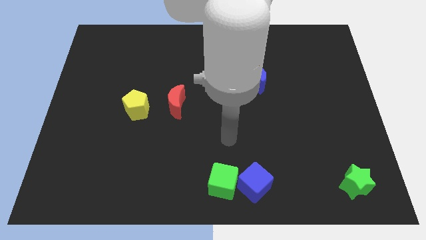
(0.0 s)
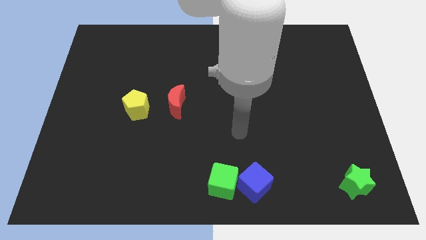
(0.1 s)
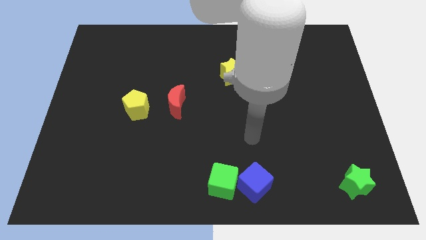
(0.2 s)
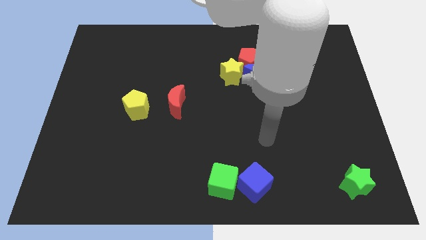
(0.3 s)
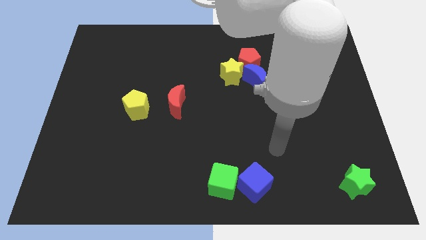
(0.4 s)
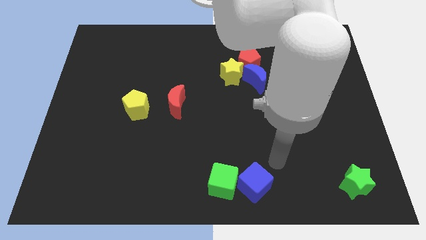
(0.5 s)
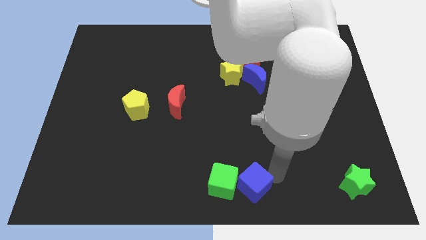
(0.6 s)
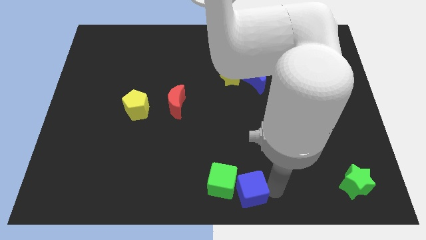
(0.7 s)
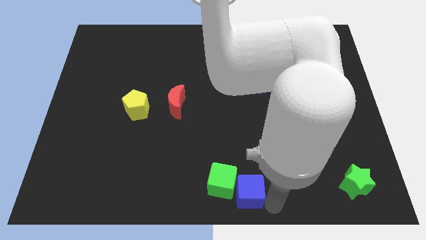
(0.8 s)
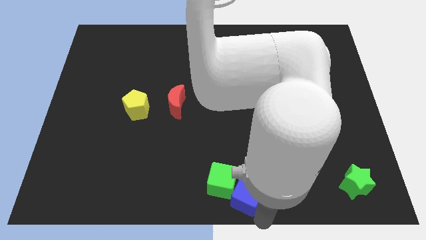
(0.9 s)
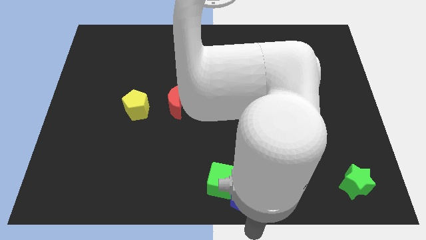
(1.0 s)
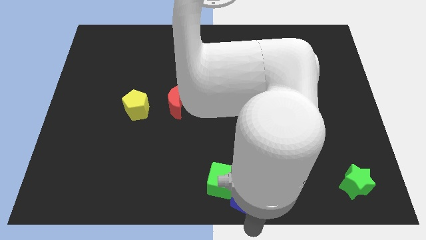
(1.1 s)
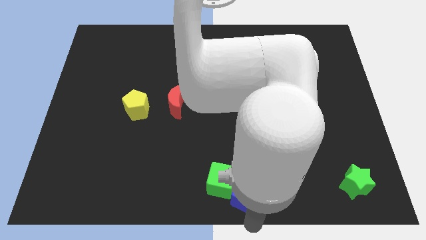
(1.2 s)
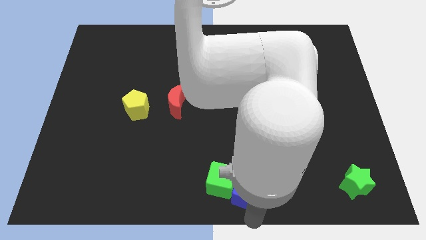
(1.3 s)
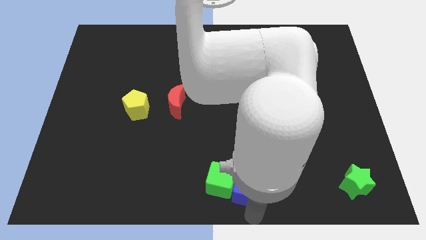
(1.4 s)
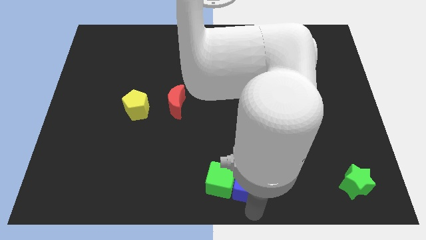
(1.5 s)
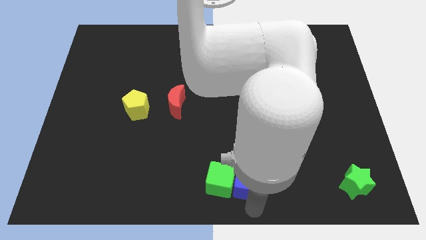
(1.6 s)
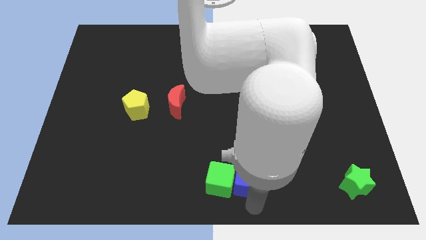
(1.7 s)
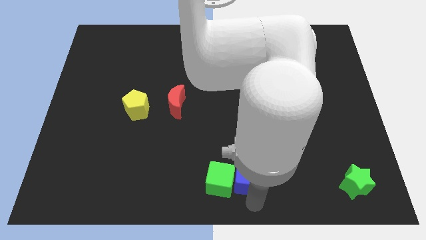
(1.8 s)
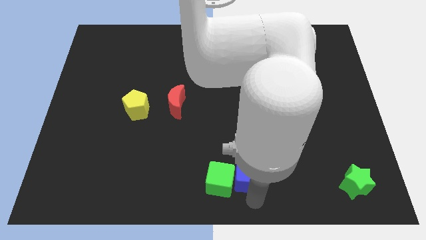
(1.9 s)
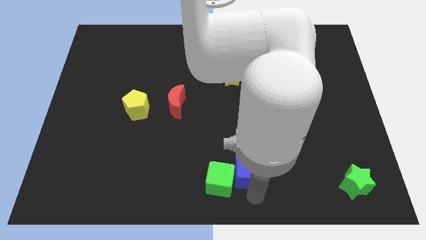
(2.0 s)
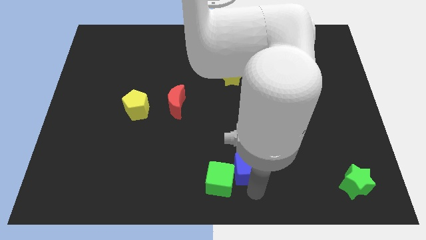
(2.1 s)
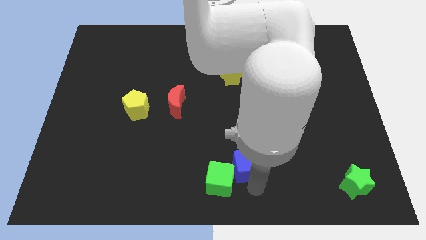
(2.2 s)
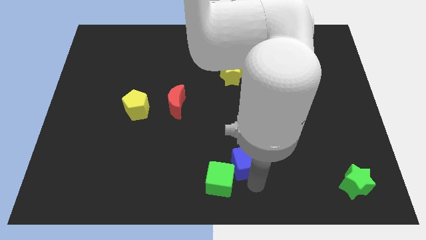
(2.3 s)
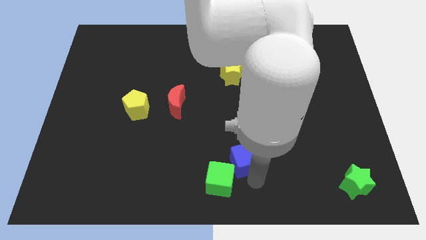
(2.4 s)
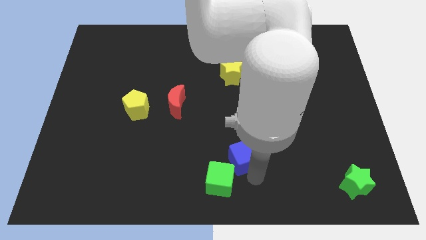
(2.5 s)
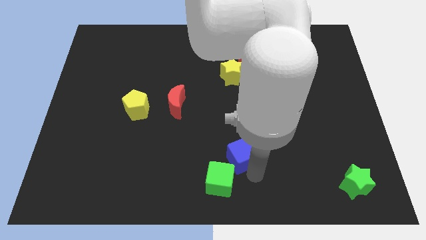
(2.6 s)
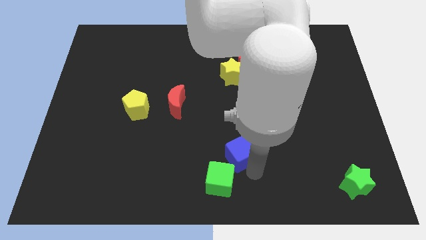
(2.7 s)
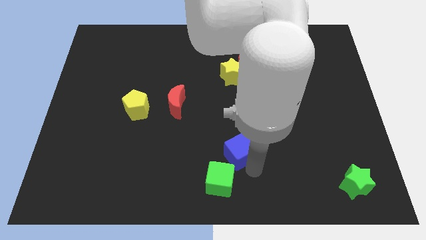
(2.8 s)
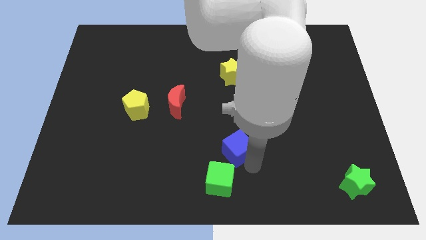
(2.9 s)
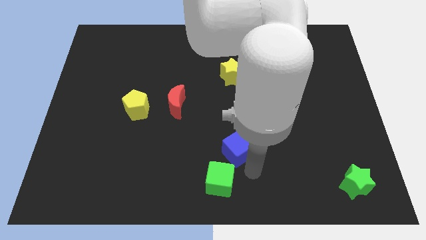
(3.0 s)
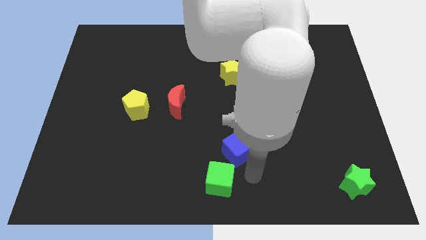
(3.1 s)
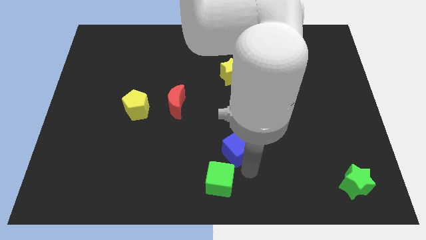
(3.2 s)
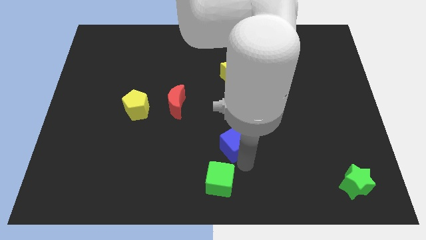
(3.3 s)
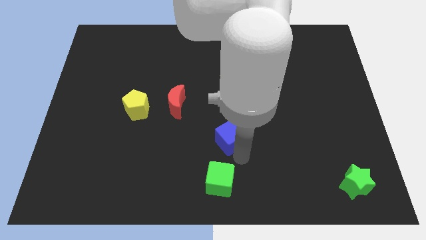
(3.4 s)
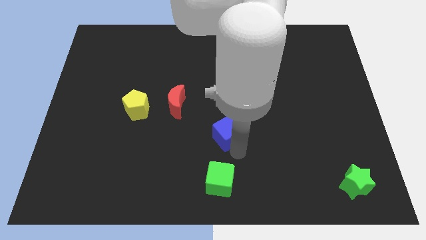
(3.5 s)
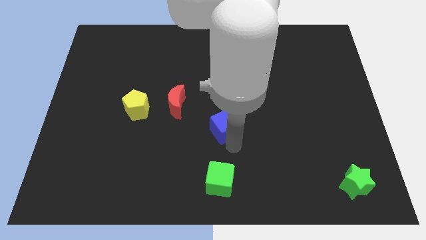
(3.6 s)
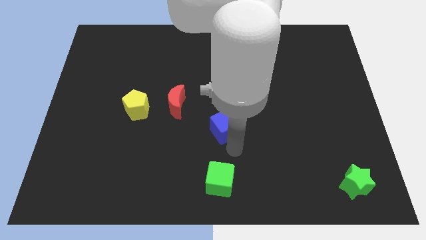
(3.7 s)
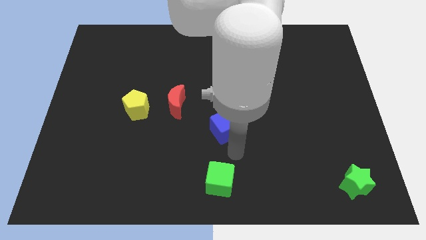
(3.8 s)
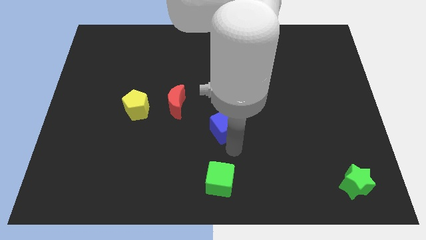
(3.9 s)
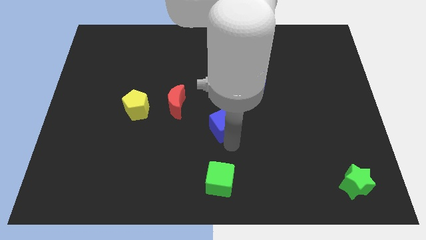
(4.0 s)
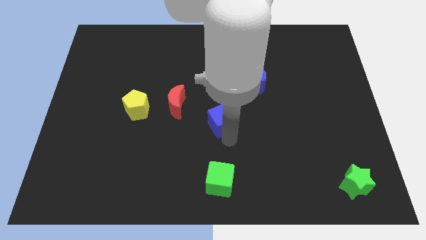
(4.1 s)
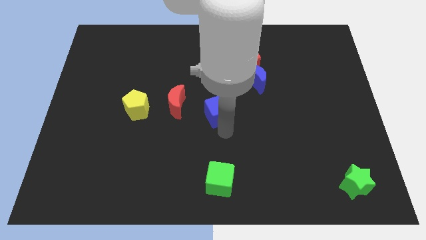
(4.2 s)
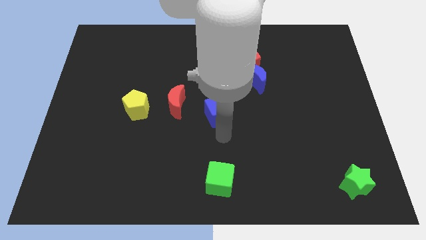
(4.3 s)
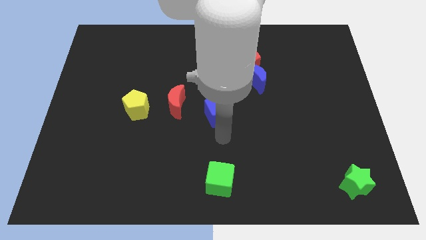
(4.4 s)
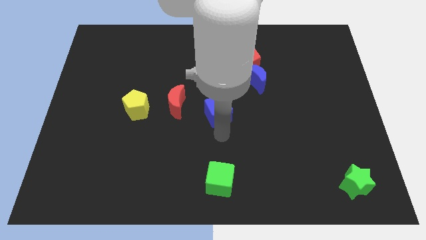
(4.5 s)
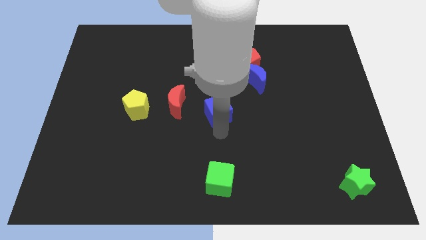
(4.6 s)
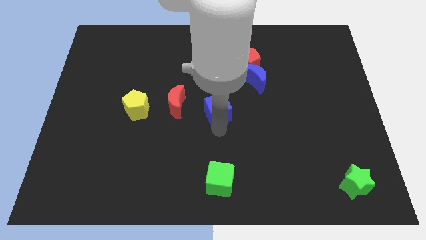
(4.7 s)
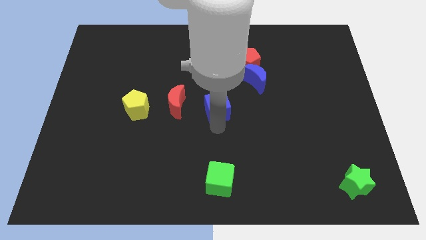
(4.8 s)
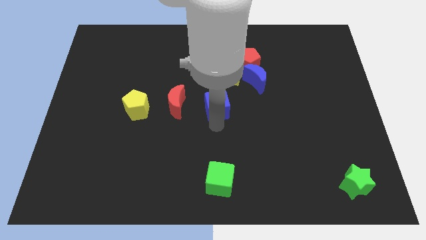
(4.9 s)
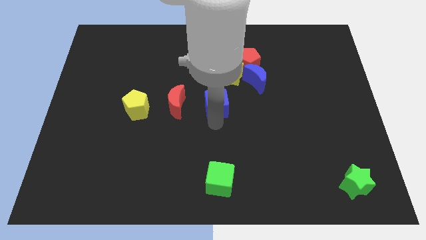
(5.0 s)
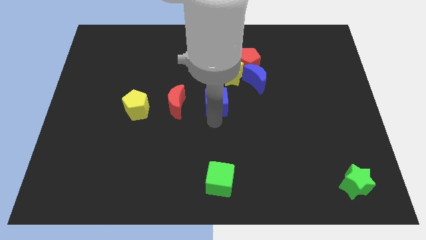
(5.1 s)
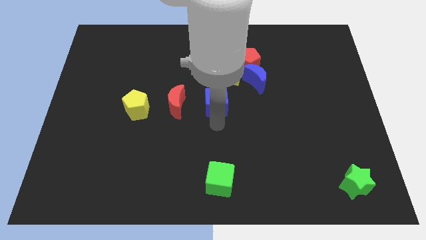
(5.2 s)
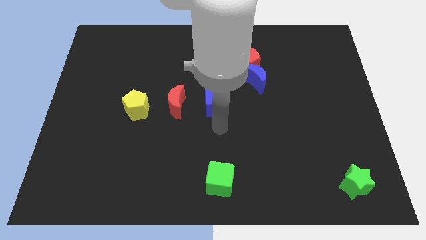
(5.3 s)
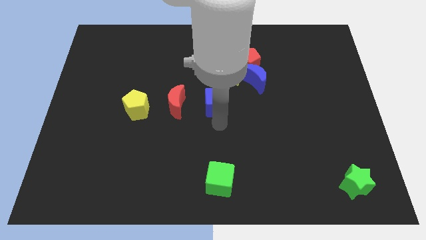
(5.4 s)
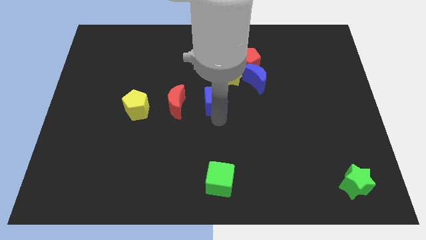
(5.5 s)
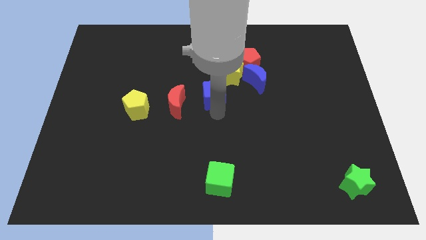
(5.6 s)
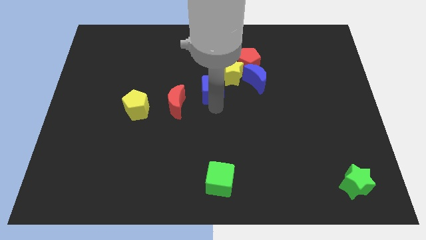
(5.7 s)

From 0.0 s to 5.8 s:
move the blue cube to the left side of the blue moon
